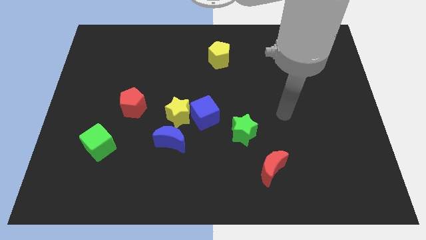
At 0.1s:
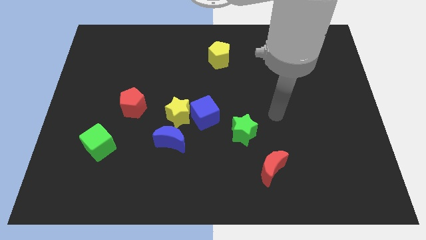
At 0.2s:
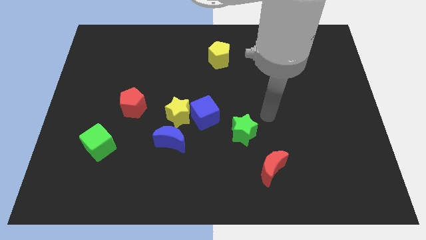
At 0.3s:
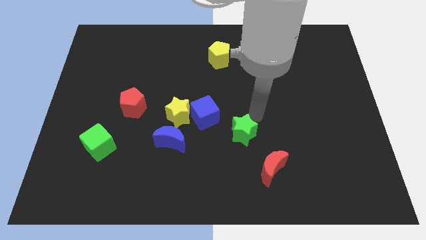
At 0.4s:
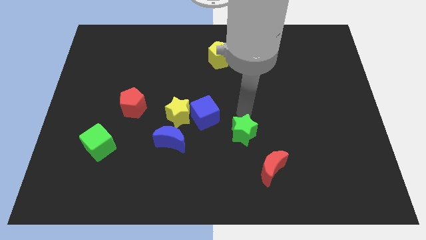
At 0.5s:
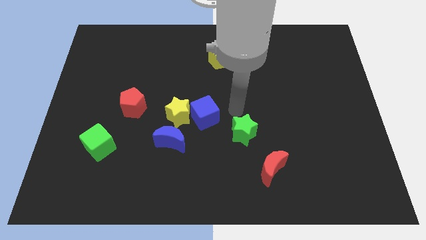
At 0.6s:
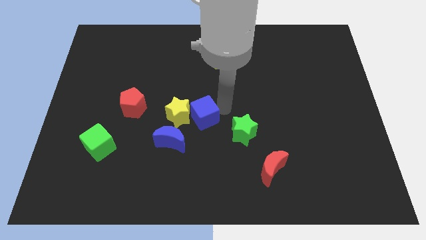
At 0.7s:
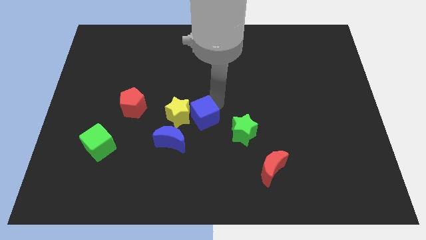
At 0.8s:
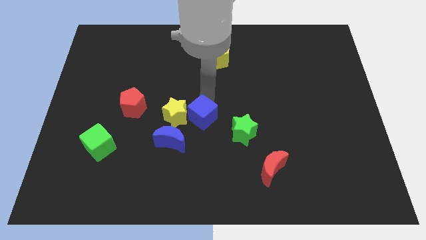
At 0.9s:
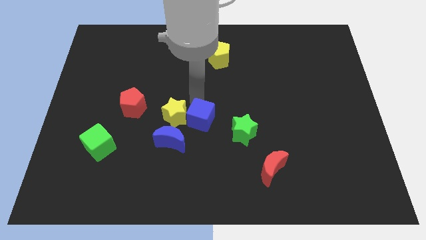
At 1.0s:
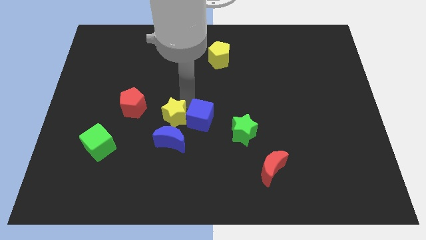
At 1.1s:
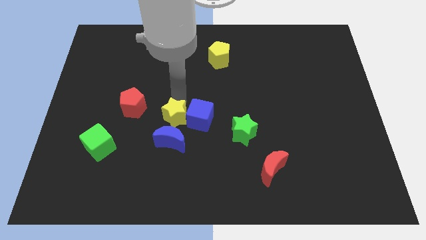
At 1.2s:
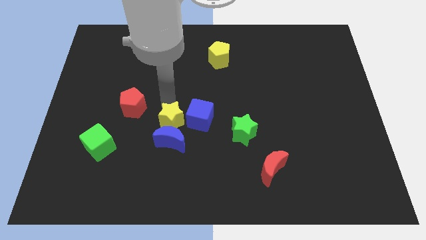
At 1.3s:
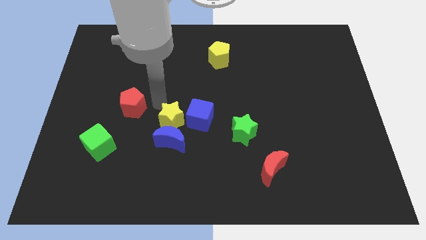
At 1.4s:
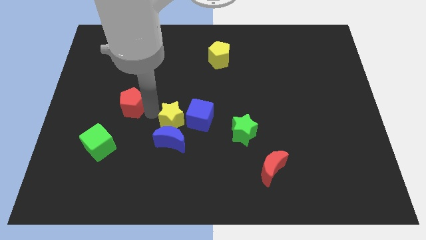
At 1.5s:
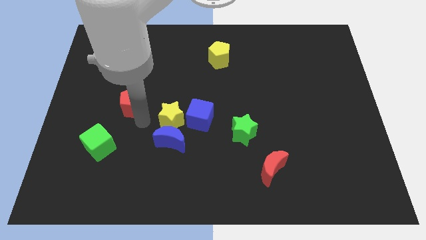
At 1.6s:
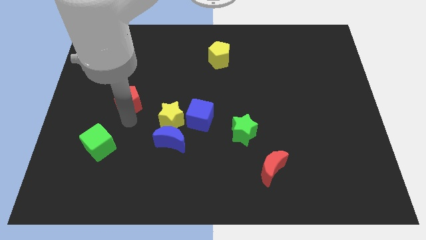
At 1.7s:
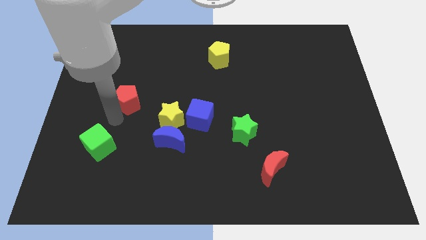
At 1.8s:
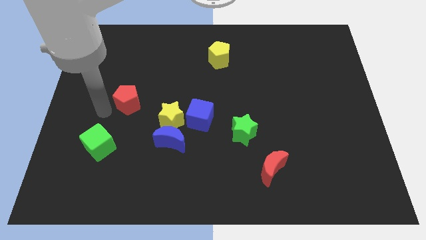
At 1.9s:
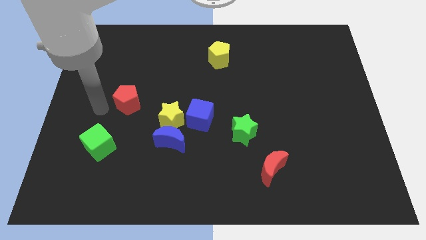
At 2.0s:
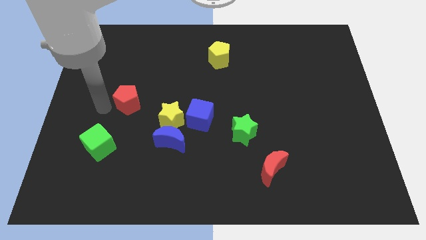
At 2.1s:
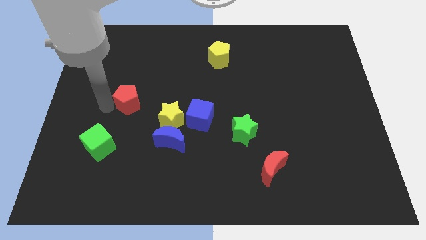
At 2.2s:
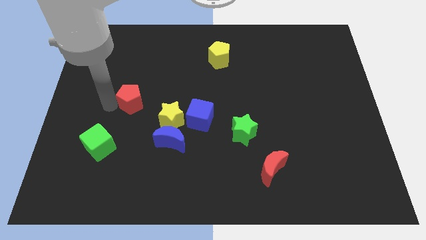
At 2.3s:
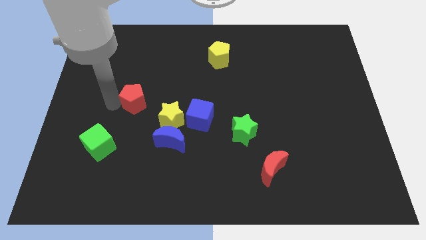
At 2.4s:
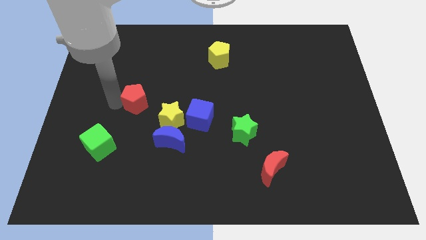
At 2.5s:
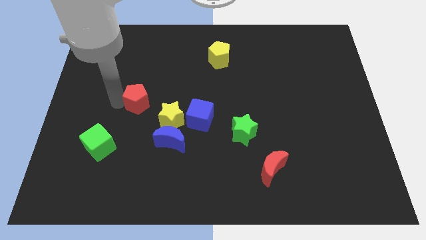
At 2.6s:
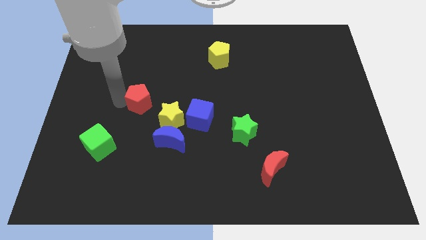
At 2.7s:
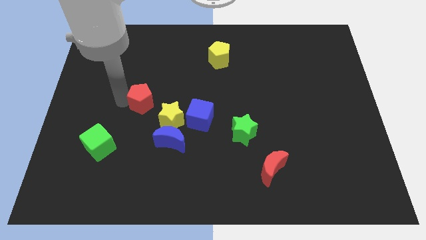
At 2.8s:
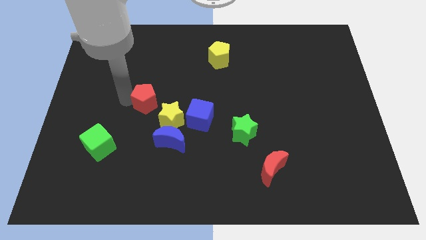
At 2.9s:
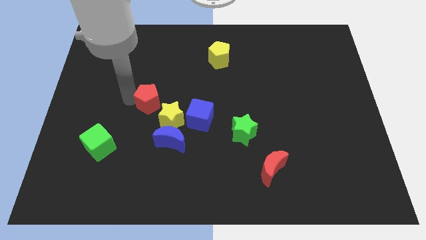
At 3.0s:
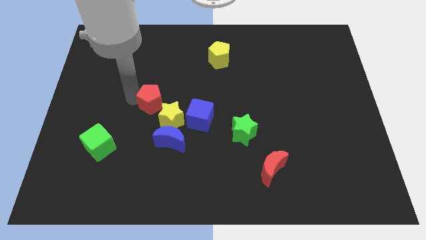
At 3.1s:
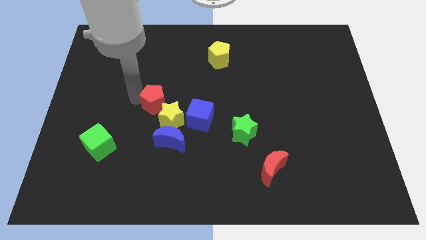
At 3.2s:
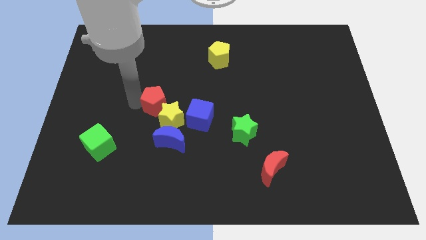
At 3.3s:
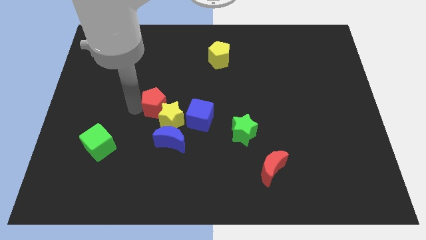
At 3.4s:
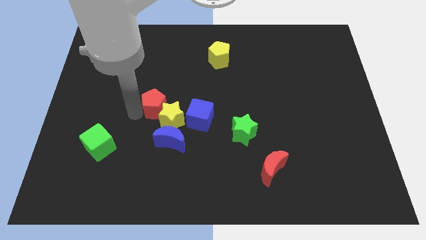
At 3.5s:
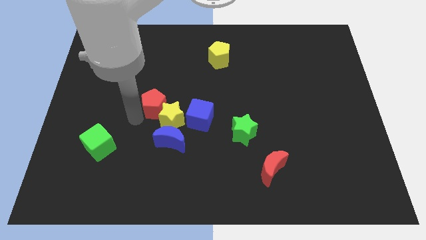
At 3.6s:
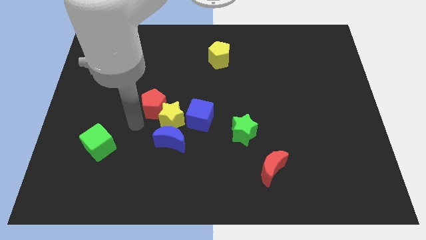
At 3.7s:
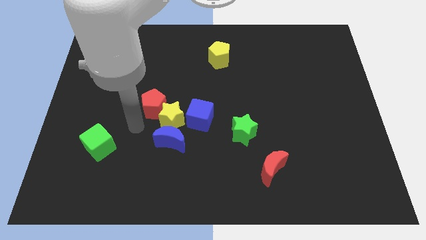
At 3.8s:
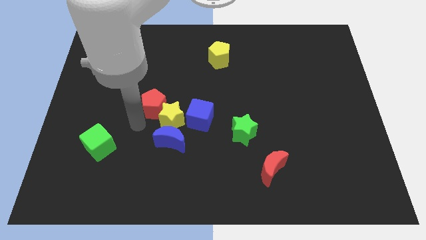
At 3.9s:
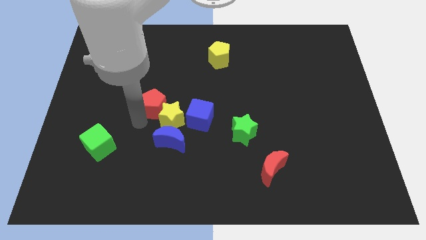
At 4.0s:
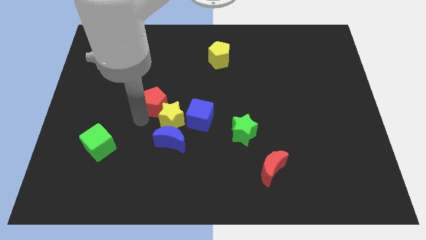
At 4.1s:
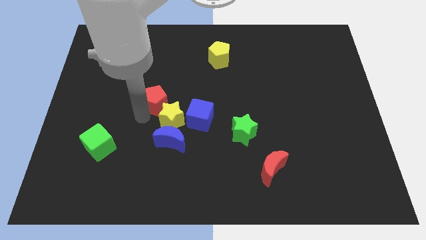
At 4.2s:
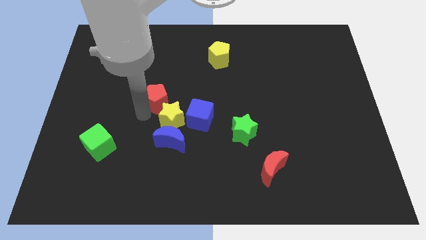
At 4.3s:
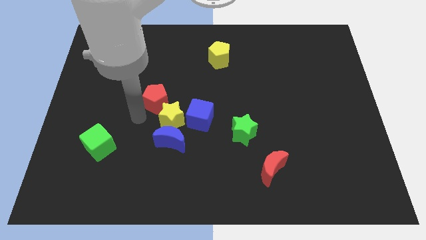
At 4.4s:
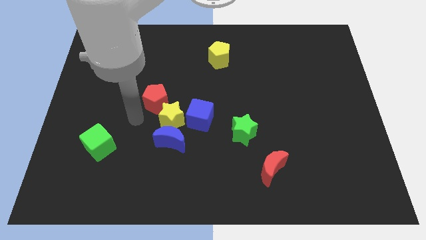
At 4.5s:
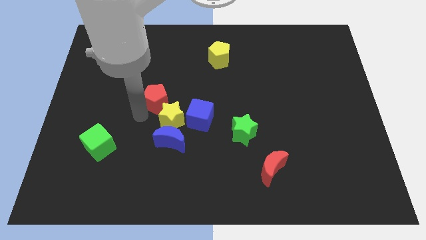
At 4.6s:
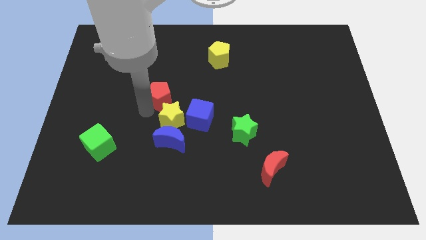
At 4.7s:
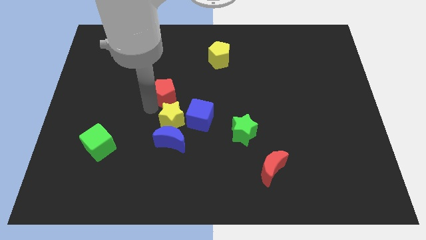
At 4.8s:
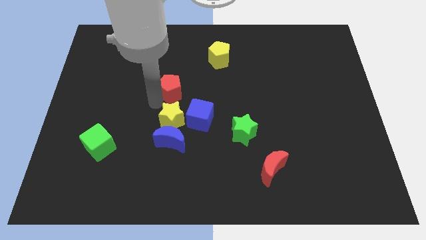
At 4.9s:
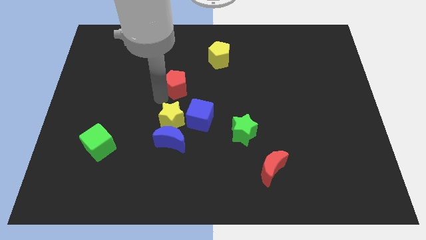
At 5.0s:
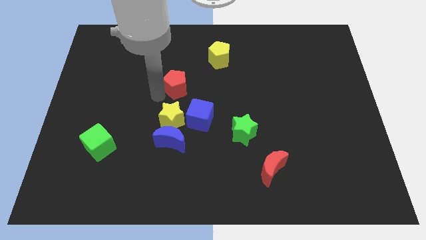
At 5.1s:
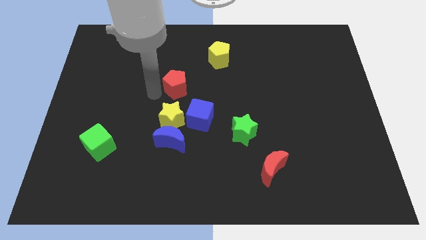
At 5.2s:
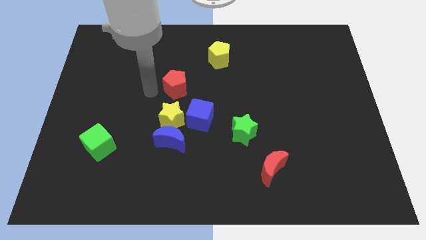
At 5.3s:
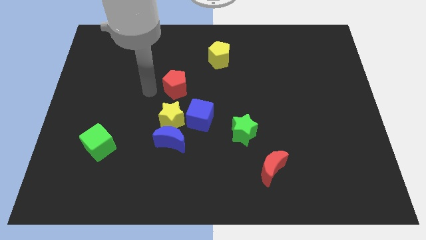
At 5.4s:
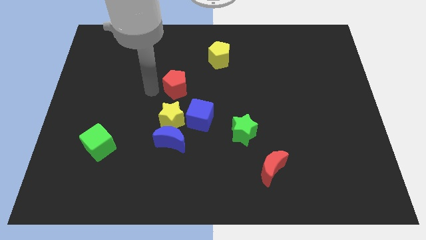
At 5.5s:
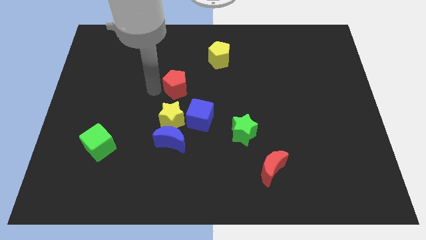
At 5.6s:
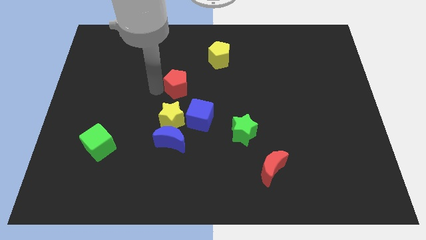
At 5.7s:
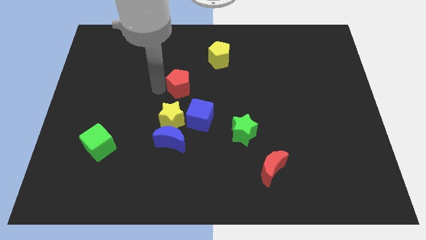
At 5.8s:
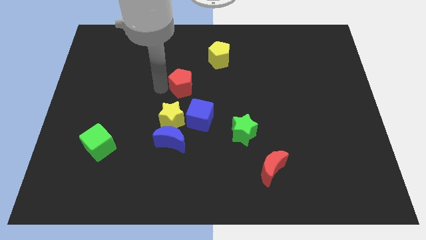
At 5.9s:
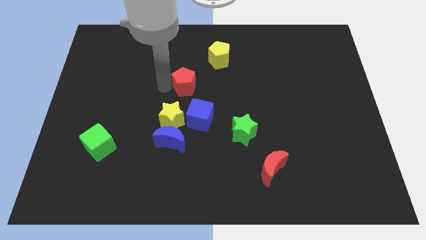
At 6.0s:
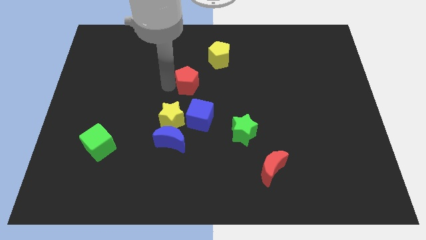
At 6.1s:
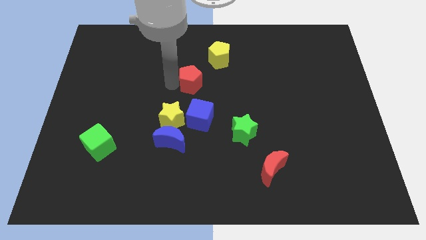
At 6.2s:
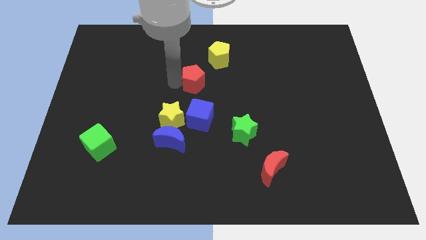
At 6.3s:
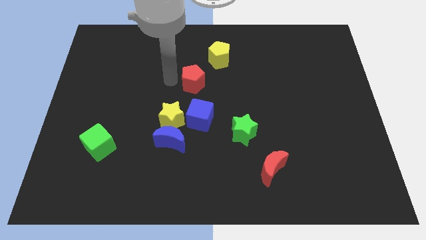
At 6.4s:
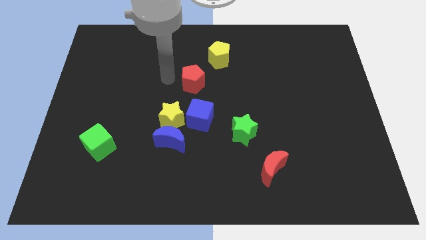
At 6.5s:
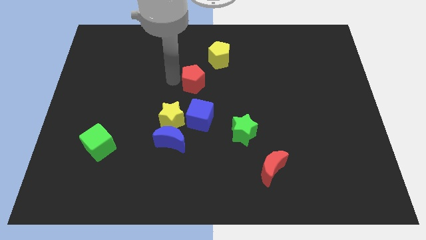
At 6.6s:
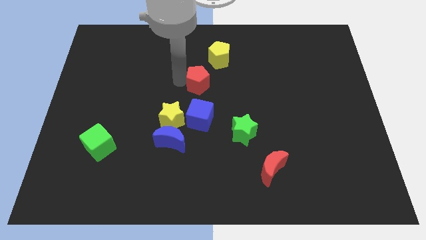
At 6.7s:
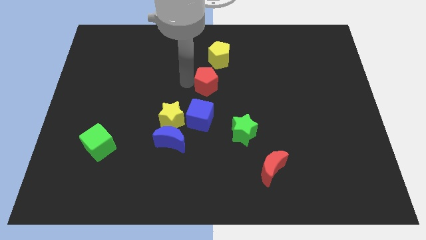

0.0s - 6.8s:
move the red pentagon to the bottom of the yellow pentagon

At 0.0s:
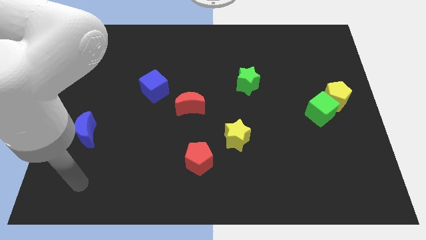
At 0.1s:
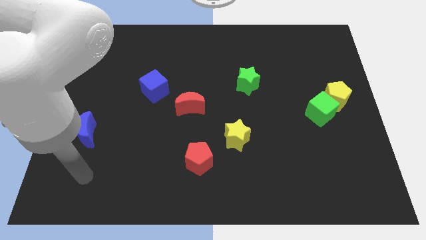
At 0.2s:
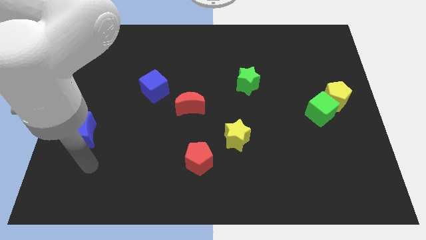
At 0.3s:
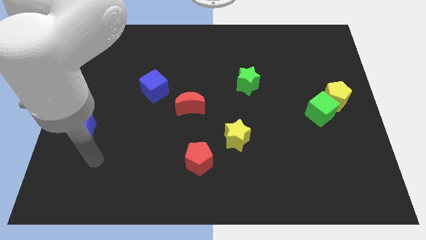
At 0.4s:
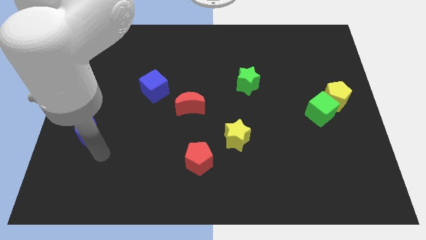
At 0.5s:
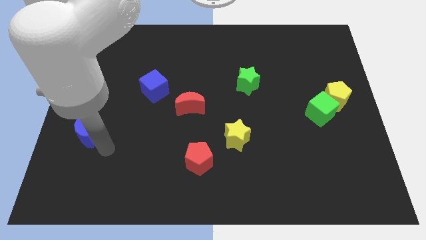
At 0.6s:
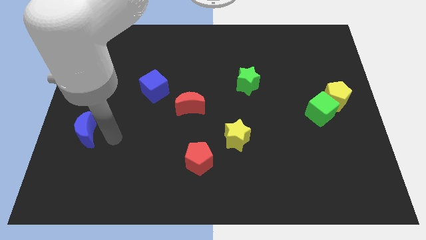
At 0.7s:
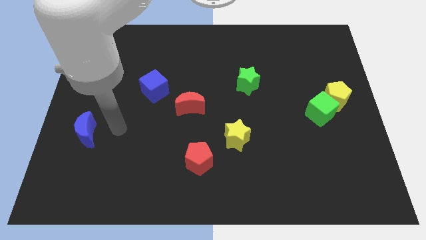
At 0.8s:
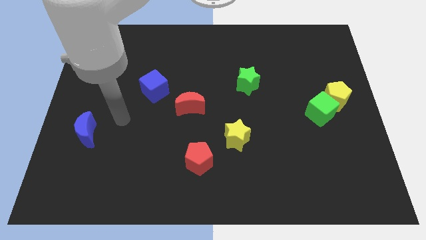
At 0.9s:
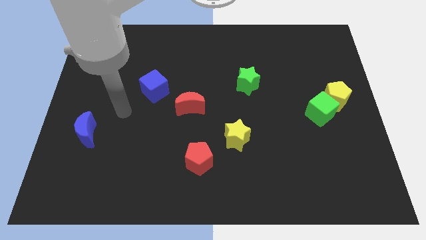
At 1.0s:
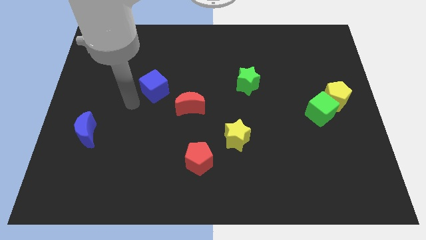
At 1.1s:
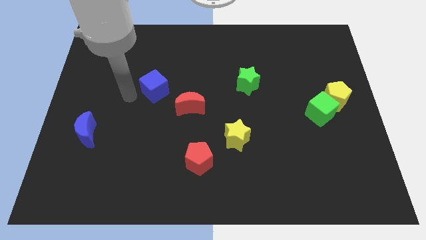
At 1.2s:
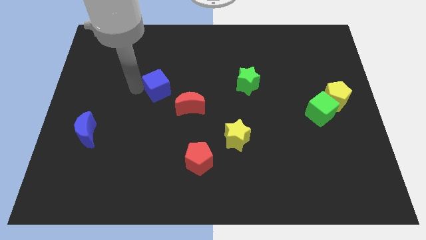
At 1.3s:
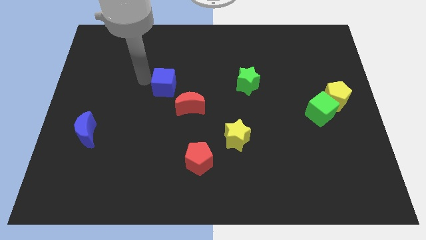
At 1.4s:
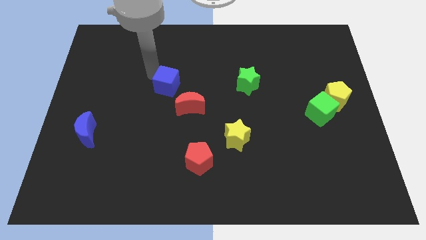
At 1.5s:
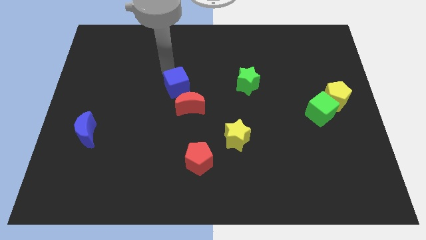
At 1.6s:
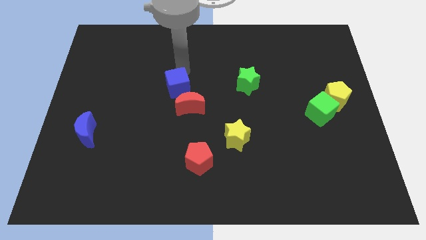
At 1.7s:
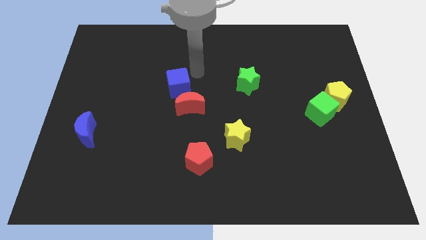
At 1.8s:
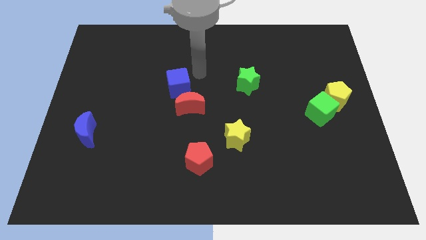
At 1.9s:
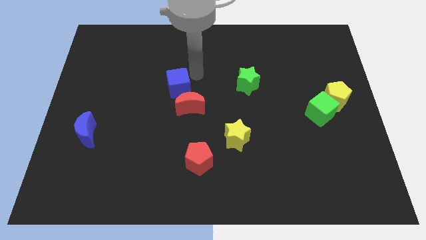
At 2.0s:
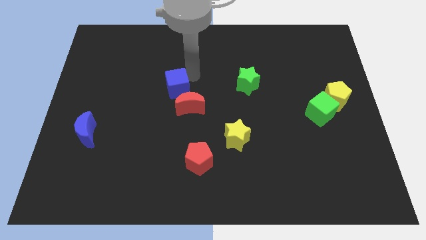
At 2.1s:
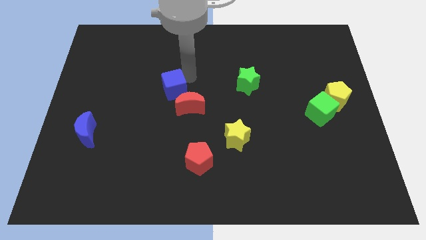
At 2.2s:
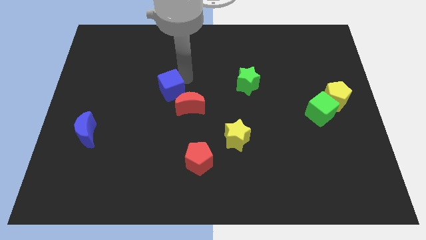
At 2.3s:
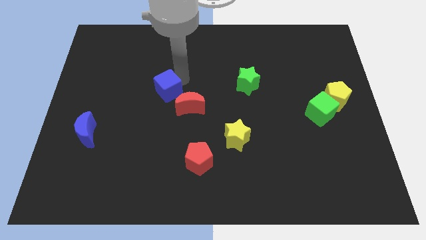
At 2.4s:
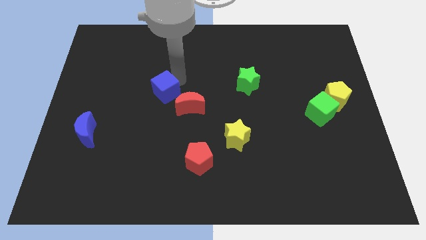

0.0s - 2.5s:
put the blue cube left of the red moon
